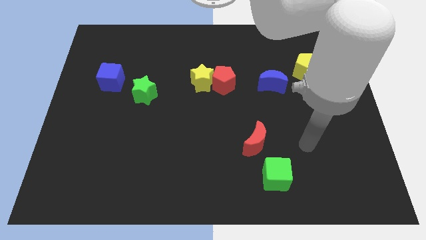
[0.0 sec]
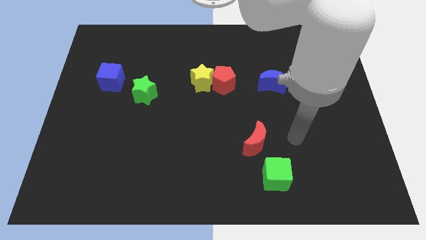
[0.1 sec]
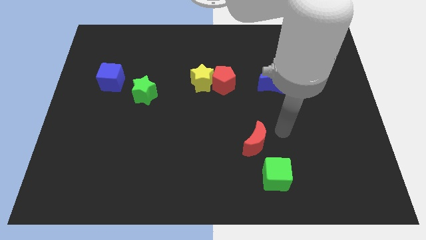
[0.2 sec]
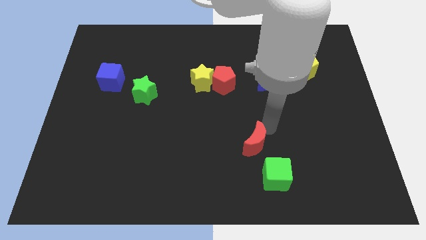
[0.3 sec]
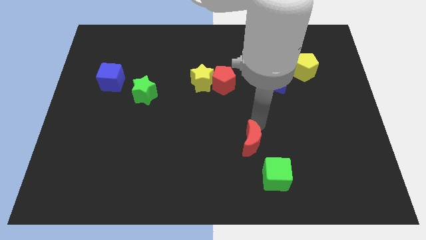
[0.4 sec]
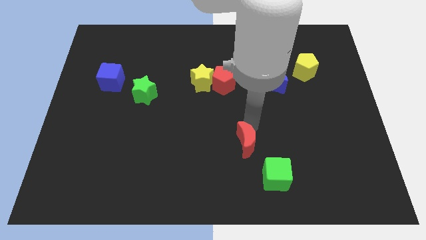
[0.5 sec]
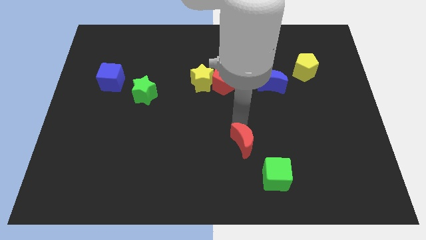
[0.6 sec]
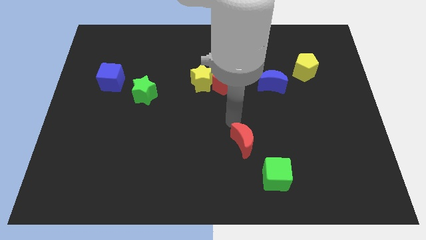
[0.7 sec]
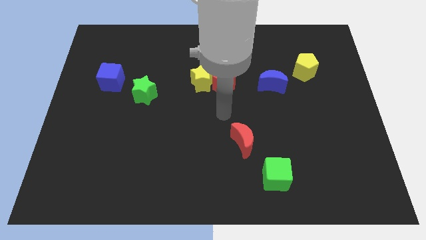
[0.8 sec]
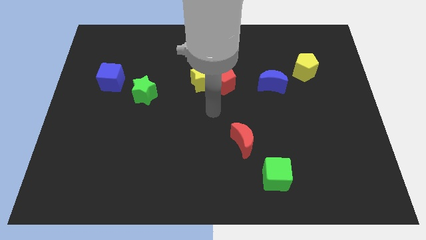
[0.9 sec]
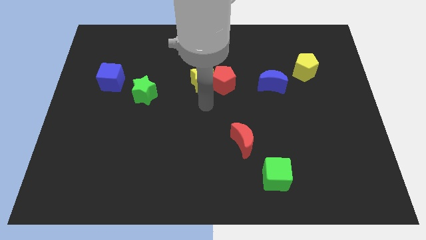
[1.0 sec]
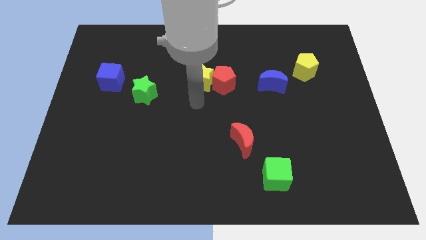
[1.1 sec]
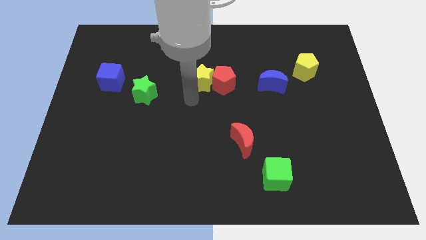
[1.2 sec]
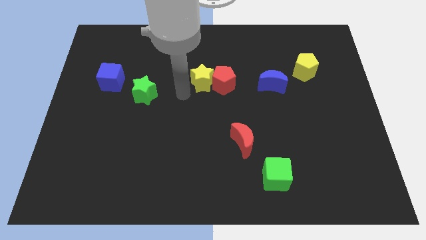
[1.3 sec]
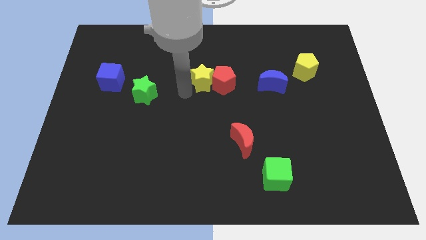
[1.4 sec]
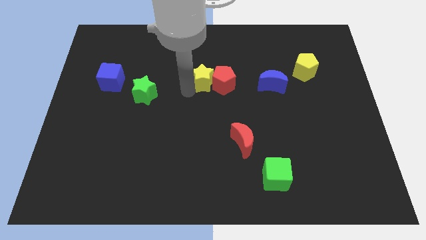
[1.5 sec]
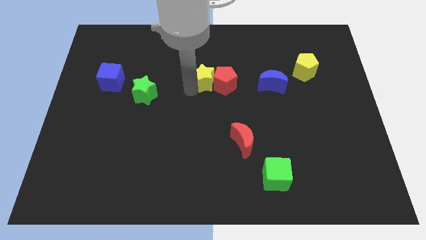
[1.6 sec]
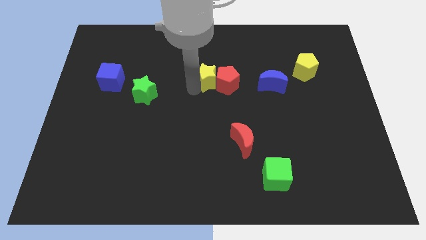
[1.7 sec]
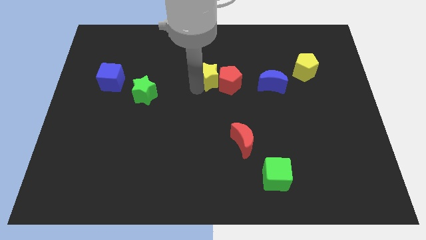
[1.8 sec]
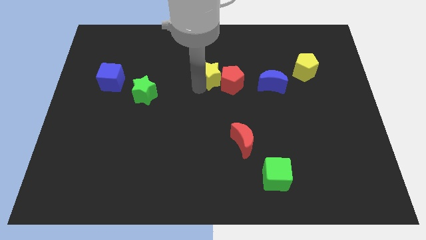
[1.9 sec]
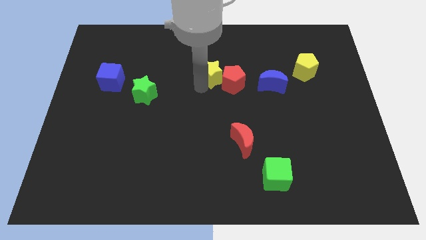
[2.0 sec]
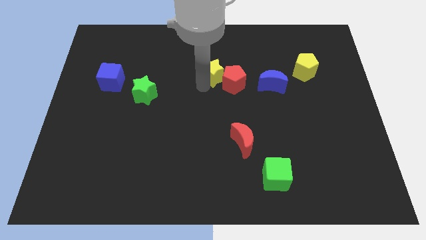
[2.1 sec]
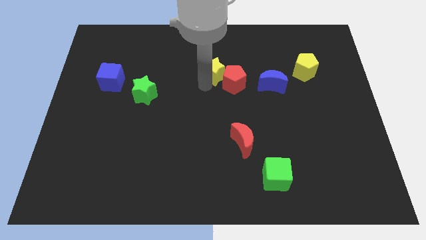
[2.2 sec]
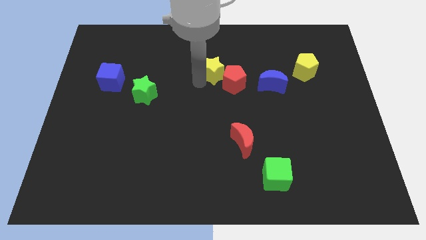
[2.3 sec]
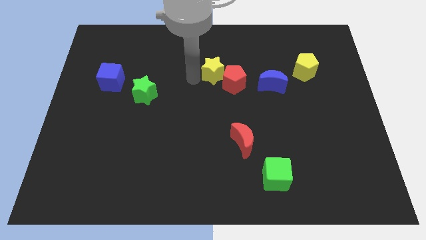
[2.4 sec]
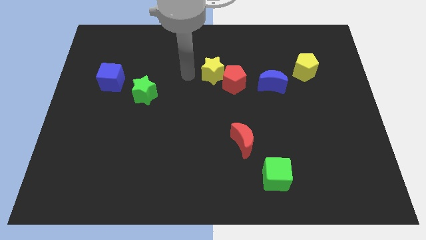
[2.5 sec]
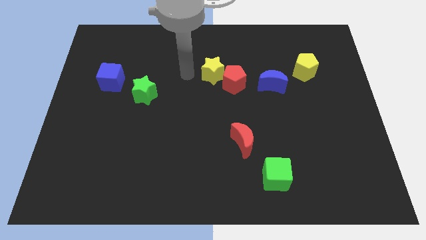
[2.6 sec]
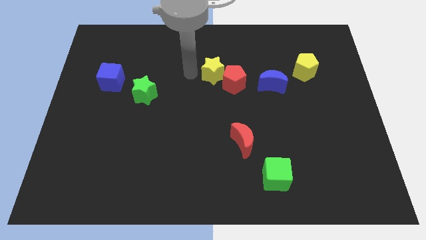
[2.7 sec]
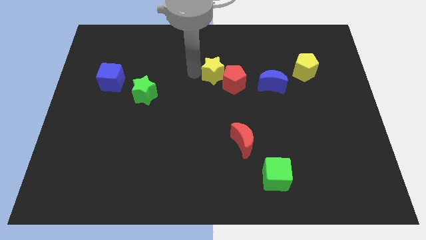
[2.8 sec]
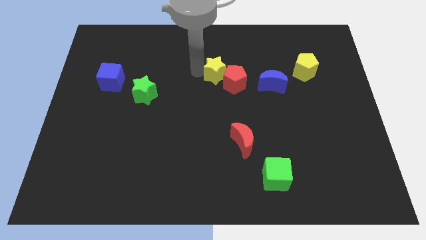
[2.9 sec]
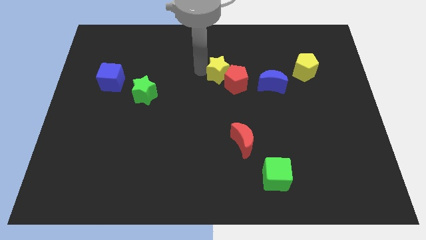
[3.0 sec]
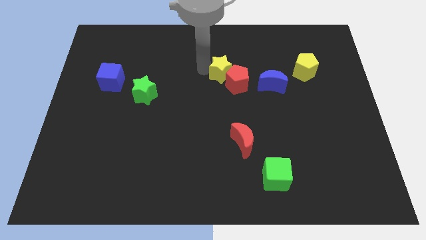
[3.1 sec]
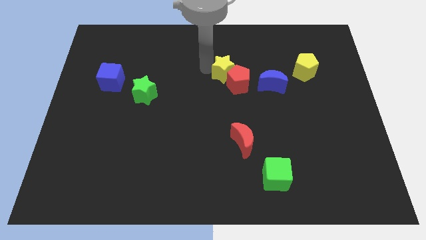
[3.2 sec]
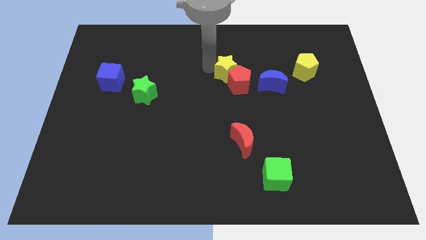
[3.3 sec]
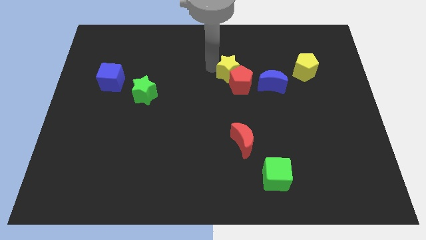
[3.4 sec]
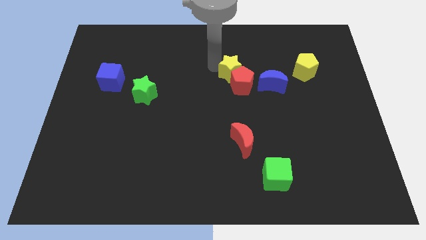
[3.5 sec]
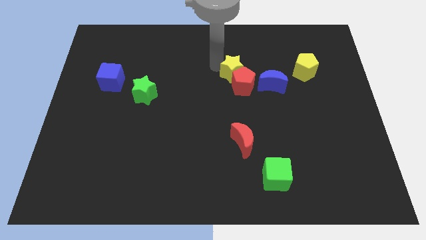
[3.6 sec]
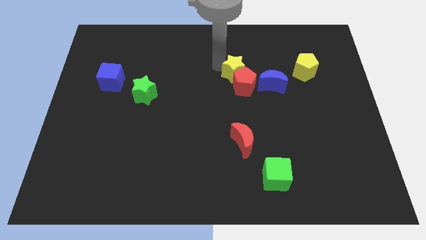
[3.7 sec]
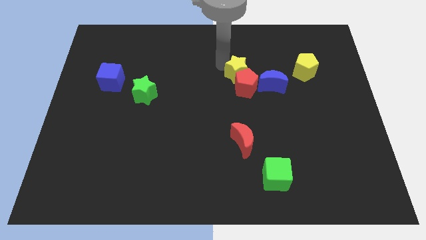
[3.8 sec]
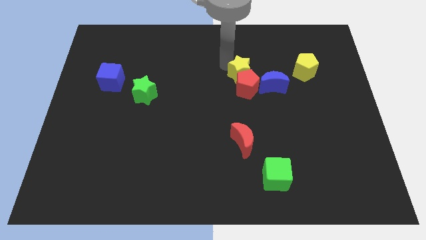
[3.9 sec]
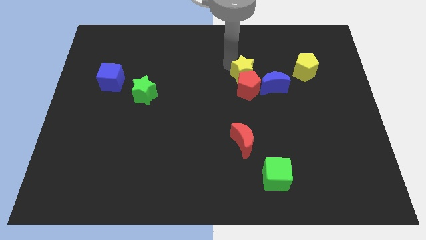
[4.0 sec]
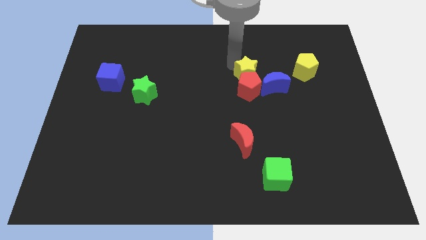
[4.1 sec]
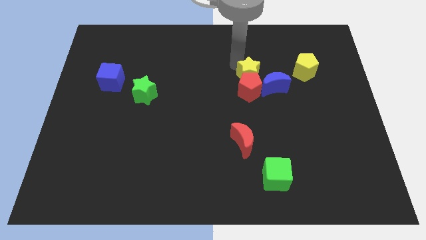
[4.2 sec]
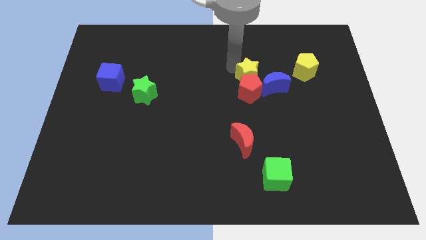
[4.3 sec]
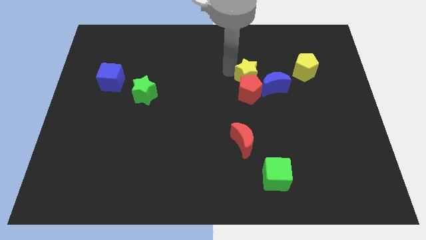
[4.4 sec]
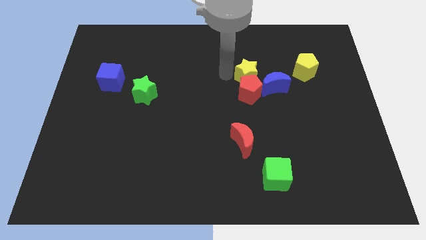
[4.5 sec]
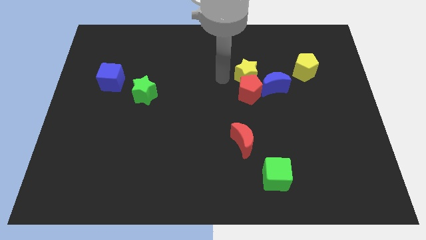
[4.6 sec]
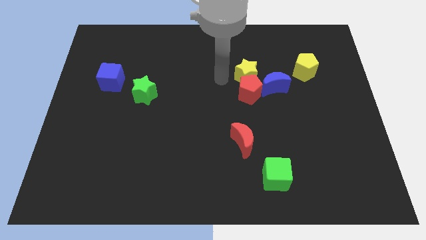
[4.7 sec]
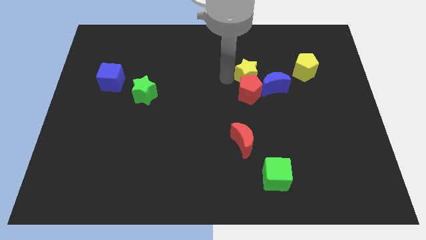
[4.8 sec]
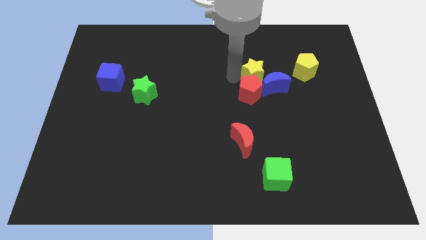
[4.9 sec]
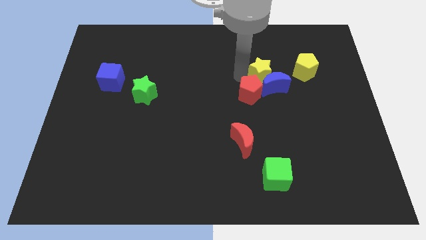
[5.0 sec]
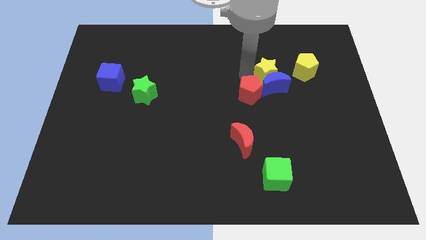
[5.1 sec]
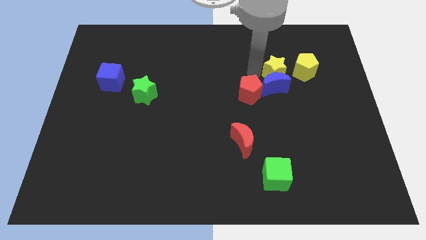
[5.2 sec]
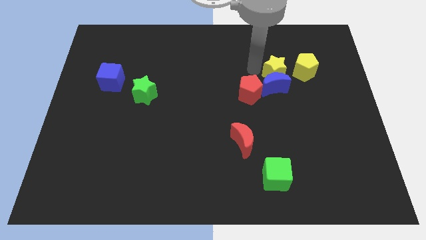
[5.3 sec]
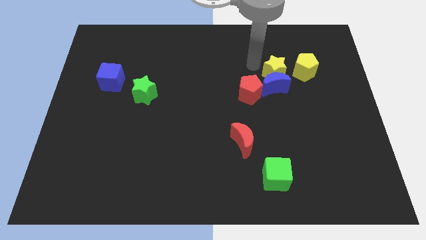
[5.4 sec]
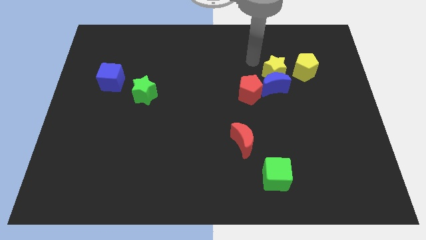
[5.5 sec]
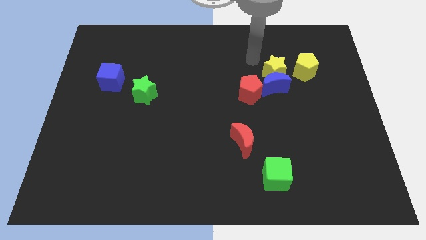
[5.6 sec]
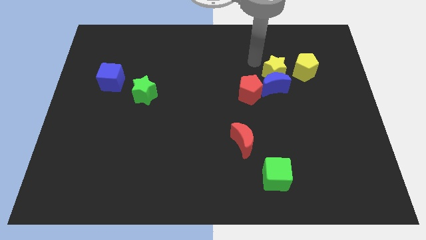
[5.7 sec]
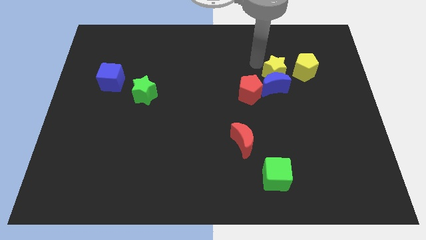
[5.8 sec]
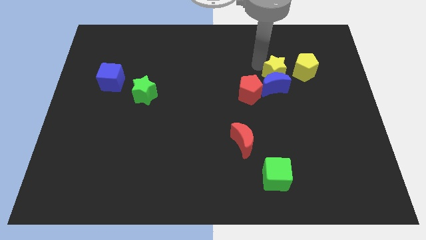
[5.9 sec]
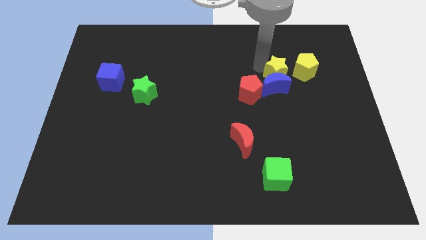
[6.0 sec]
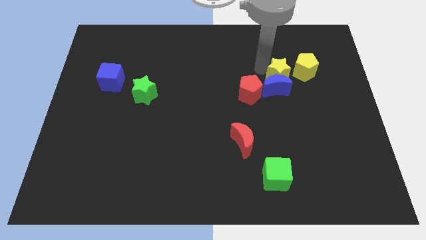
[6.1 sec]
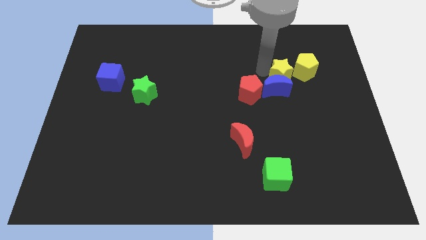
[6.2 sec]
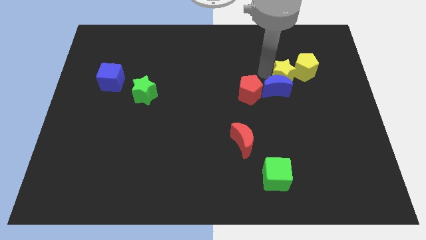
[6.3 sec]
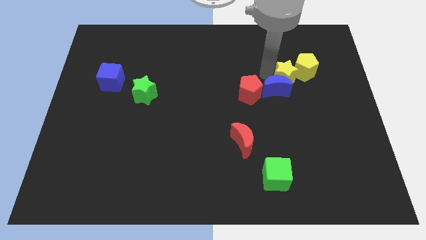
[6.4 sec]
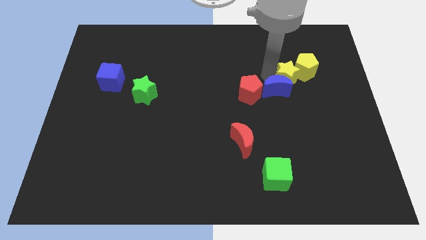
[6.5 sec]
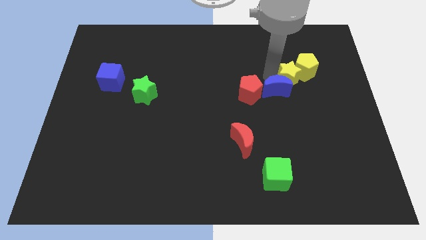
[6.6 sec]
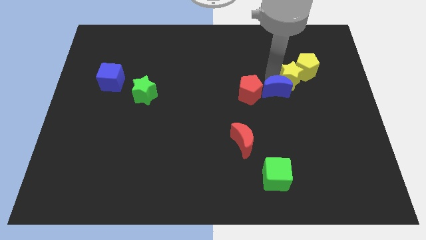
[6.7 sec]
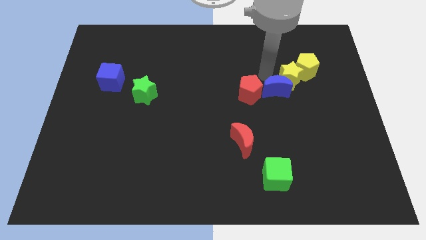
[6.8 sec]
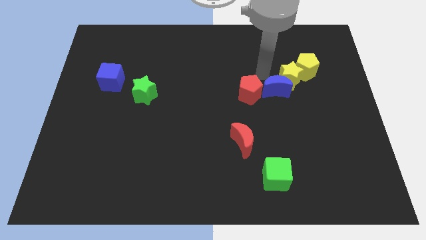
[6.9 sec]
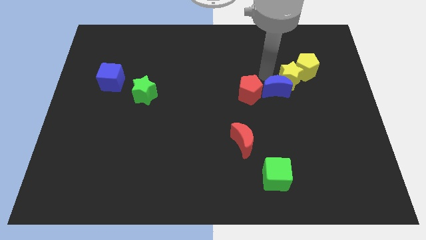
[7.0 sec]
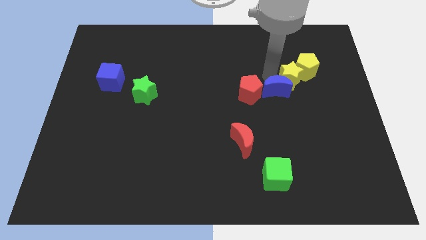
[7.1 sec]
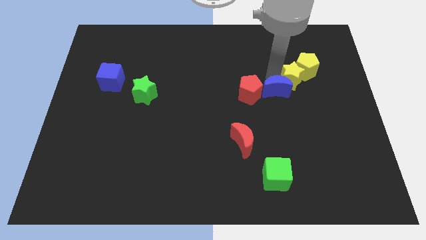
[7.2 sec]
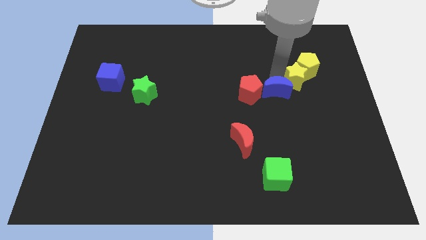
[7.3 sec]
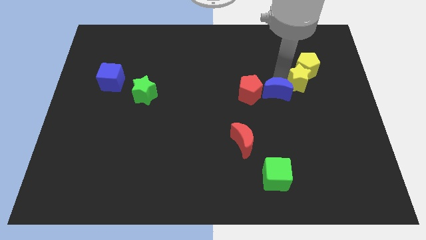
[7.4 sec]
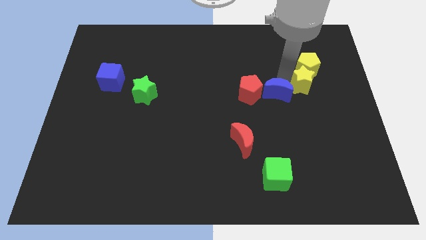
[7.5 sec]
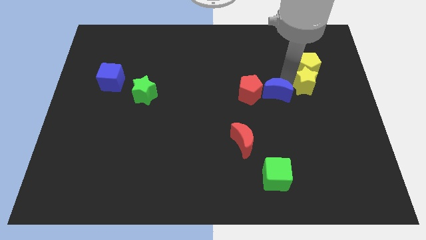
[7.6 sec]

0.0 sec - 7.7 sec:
push the yellow star diagonally down and to the right of the yellow pentagon

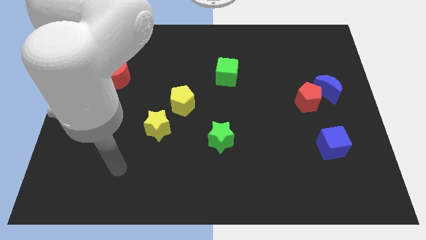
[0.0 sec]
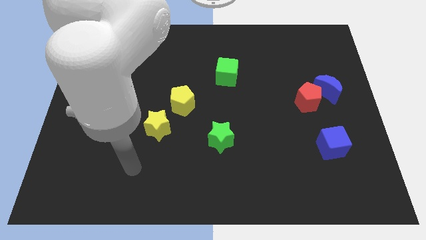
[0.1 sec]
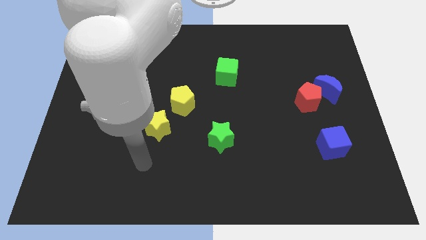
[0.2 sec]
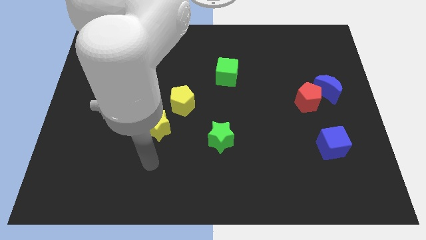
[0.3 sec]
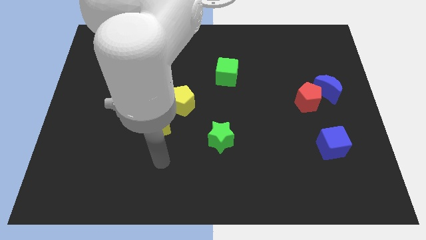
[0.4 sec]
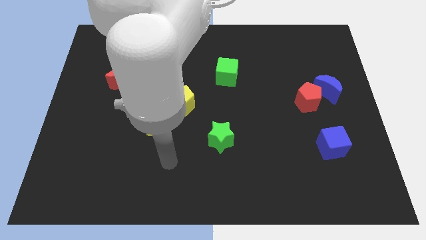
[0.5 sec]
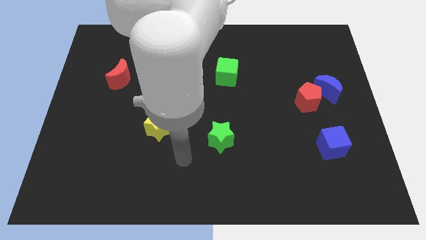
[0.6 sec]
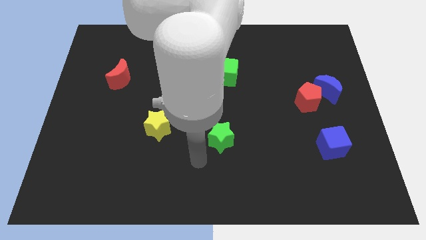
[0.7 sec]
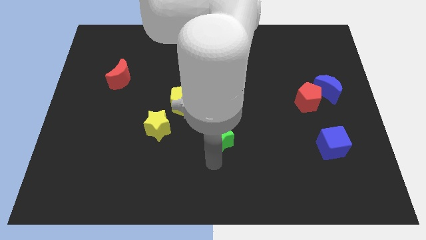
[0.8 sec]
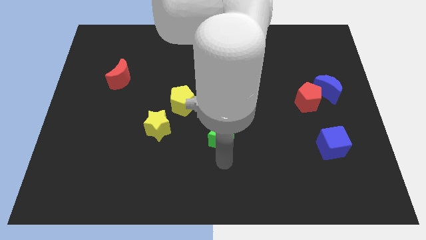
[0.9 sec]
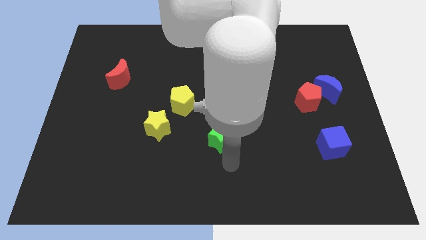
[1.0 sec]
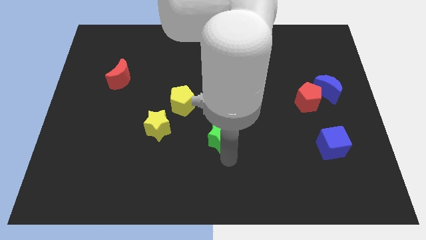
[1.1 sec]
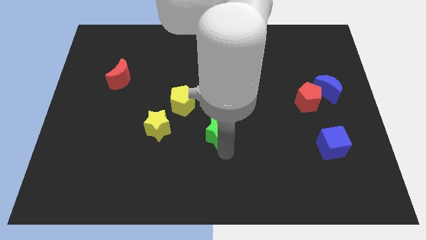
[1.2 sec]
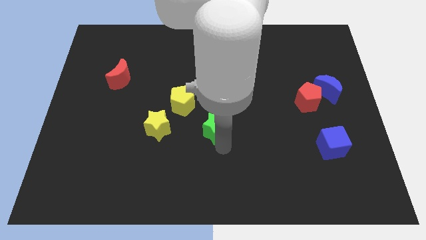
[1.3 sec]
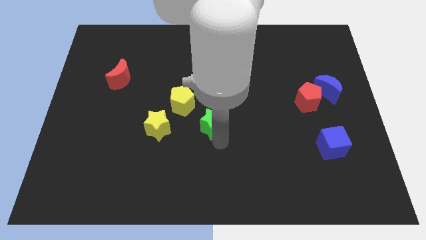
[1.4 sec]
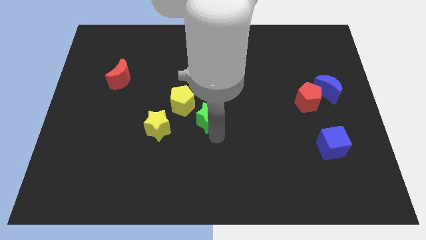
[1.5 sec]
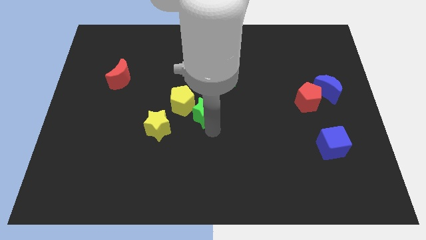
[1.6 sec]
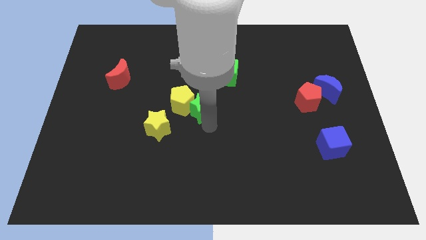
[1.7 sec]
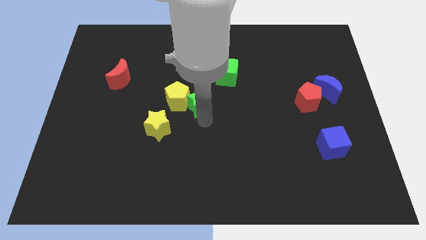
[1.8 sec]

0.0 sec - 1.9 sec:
slide the green star to the bottom left of the green cube
